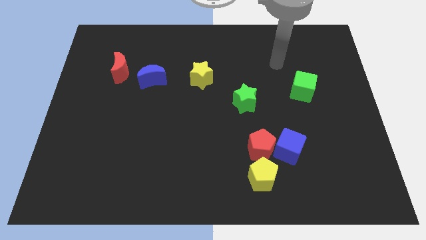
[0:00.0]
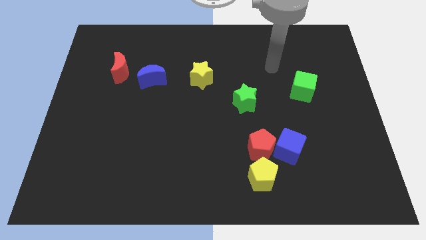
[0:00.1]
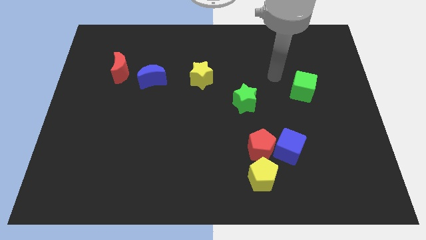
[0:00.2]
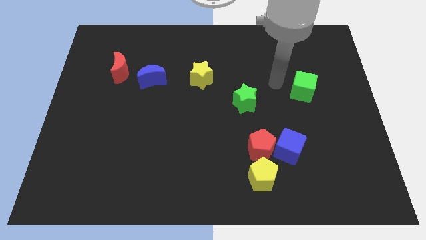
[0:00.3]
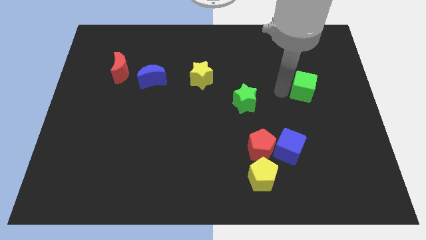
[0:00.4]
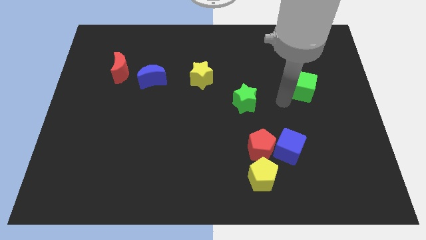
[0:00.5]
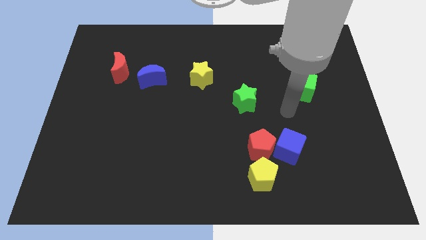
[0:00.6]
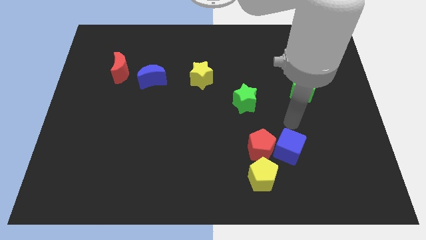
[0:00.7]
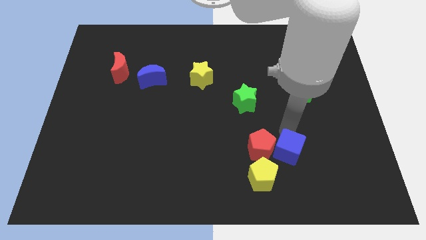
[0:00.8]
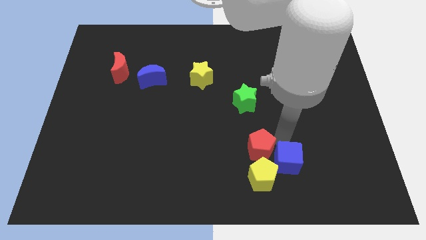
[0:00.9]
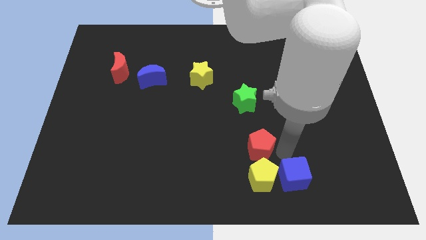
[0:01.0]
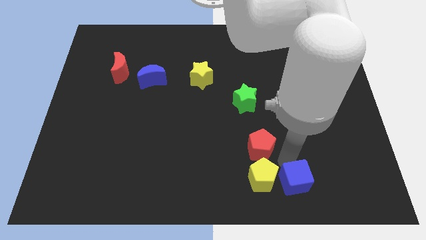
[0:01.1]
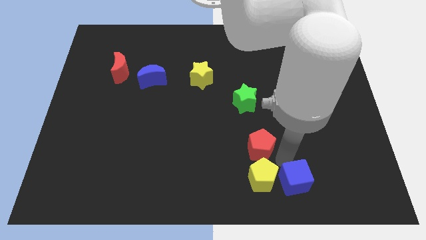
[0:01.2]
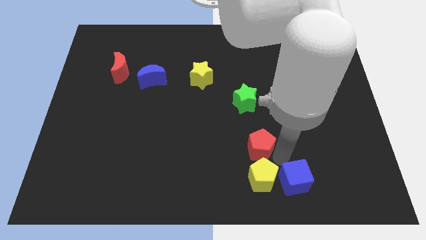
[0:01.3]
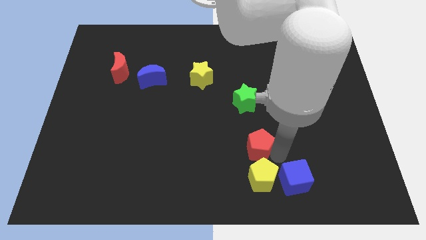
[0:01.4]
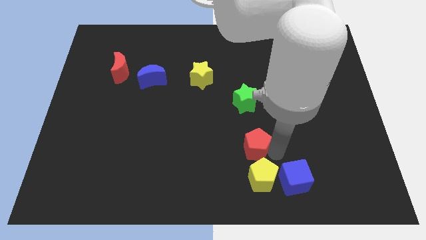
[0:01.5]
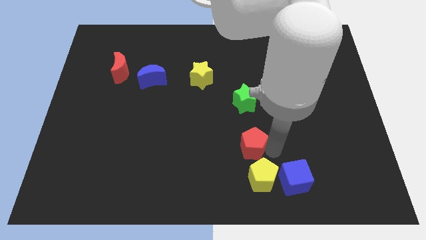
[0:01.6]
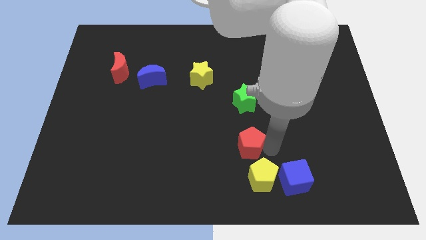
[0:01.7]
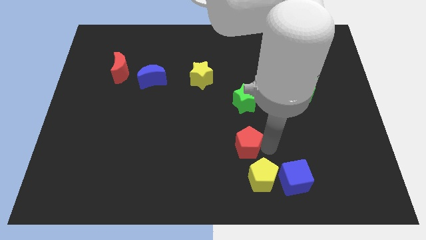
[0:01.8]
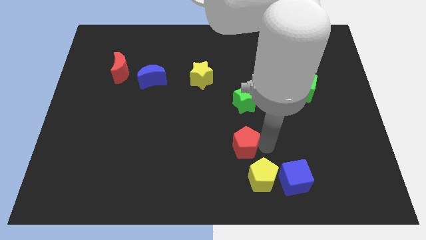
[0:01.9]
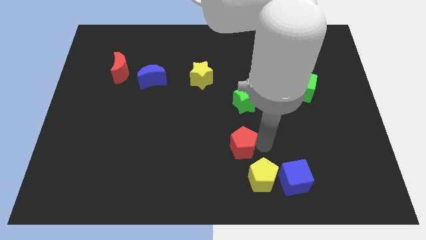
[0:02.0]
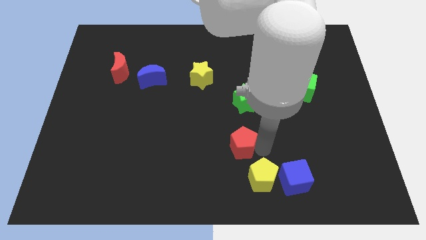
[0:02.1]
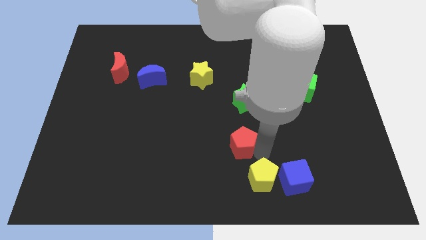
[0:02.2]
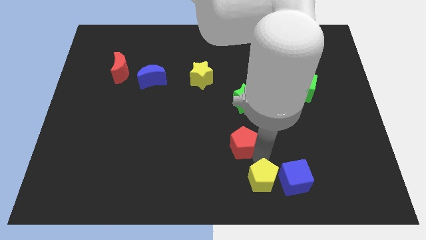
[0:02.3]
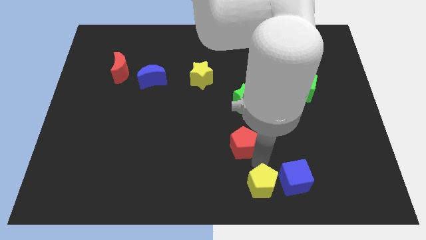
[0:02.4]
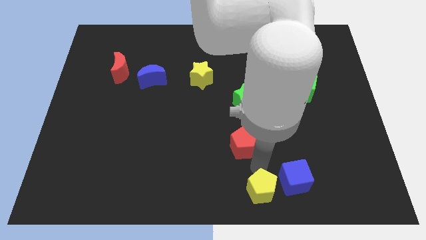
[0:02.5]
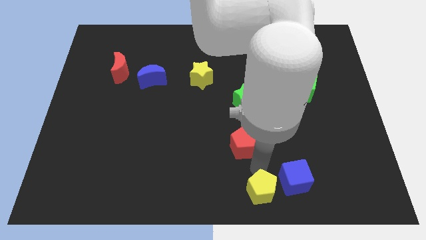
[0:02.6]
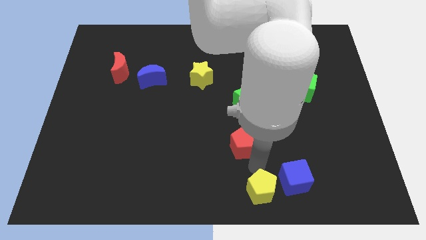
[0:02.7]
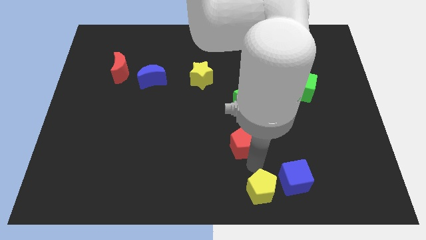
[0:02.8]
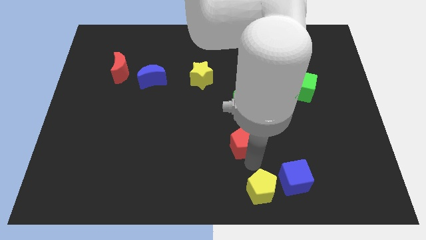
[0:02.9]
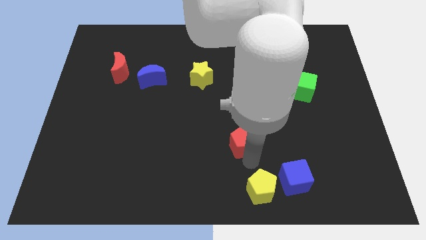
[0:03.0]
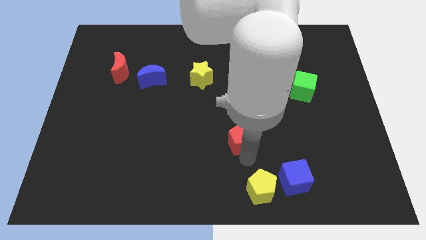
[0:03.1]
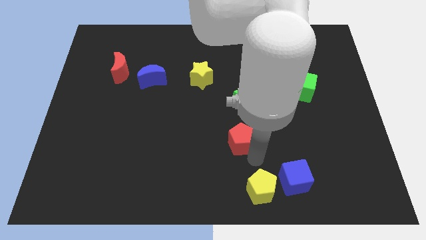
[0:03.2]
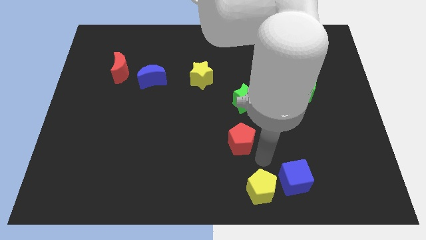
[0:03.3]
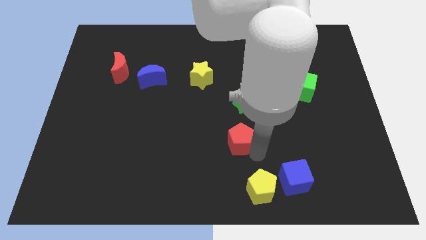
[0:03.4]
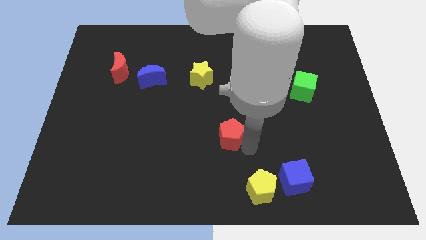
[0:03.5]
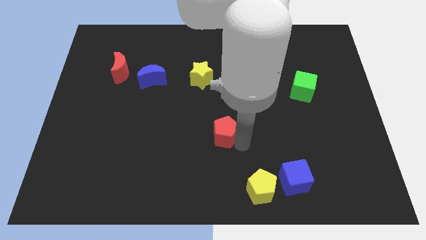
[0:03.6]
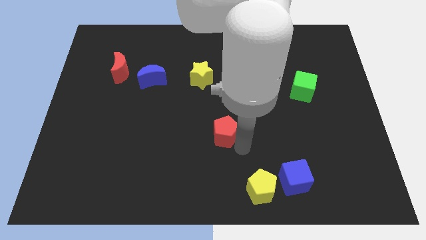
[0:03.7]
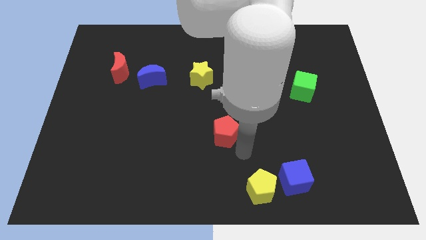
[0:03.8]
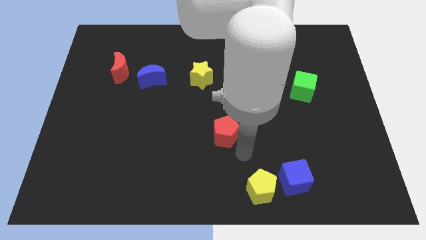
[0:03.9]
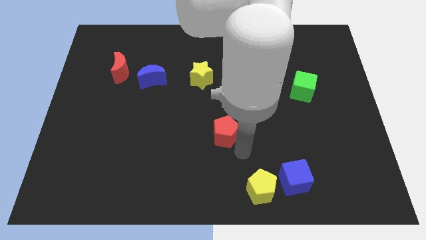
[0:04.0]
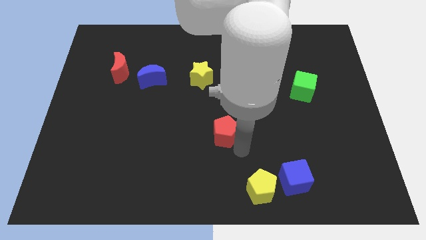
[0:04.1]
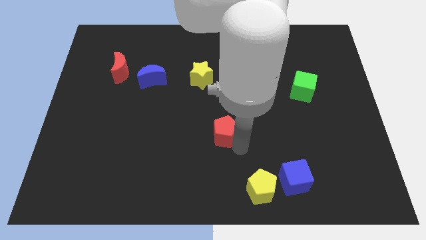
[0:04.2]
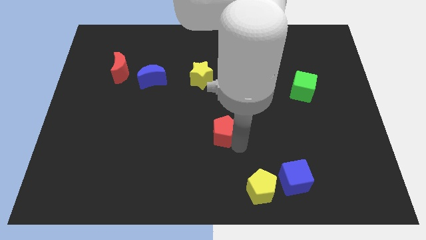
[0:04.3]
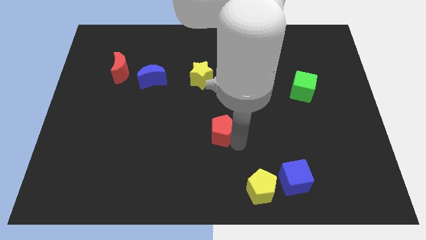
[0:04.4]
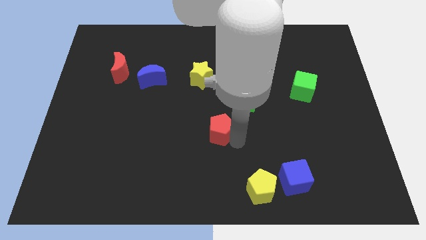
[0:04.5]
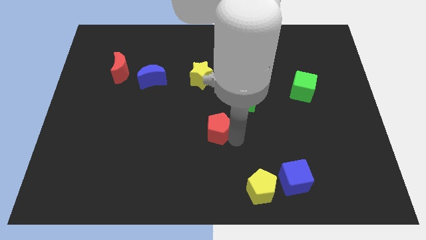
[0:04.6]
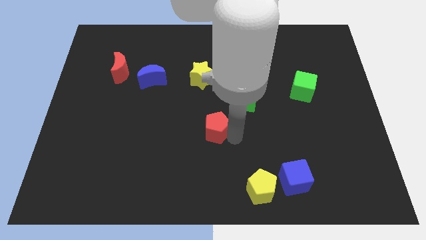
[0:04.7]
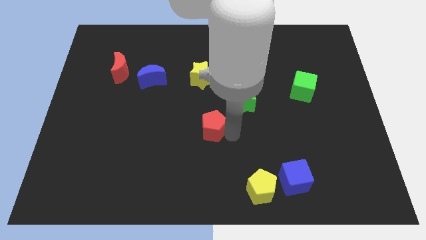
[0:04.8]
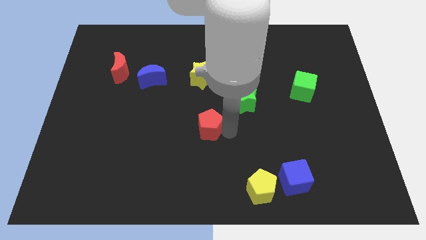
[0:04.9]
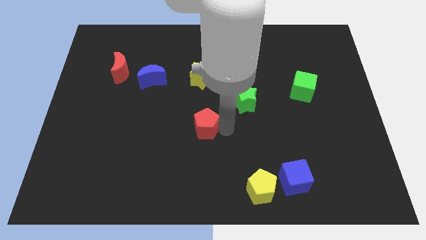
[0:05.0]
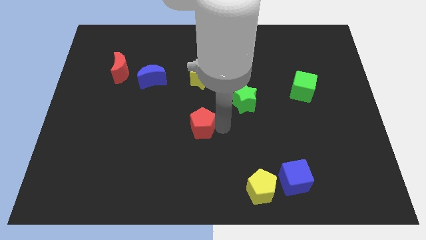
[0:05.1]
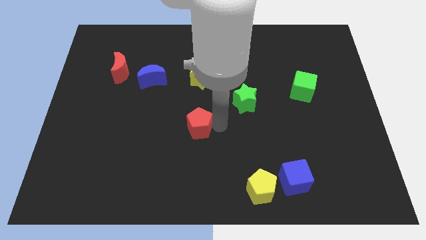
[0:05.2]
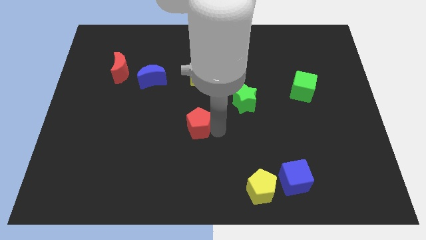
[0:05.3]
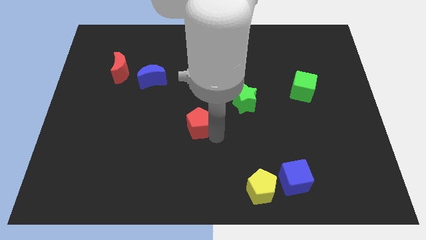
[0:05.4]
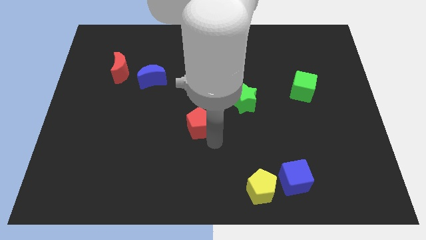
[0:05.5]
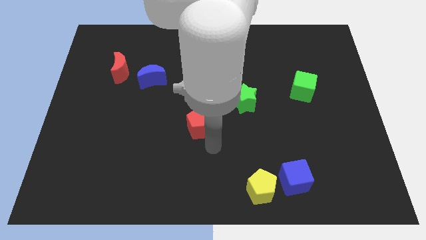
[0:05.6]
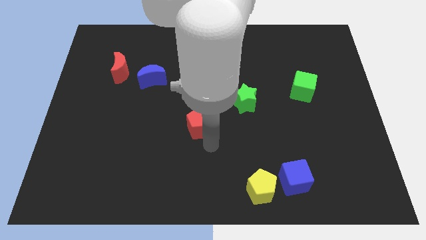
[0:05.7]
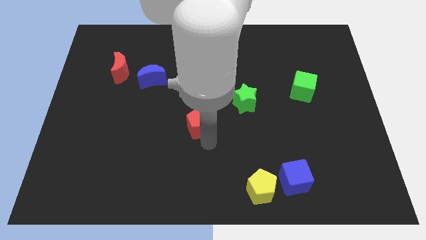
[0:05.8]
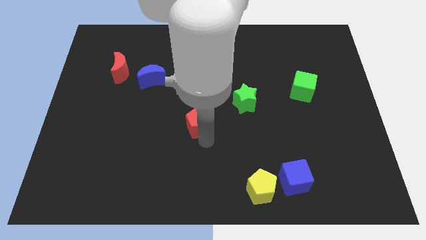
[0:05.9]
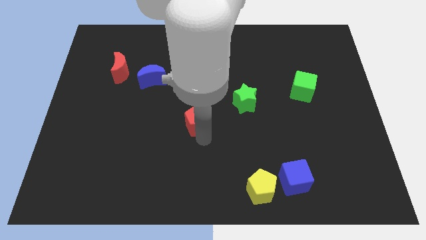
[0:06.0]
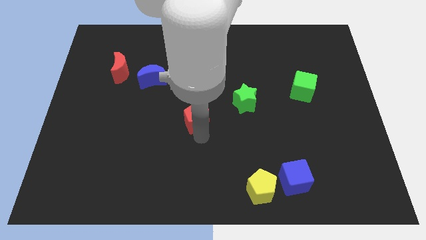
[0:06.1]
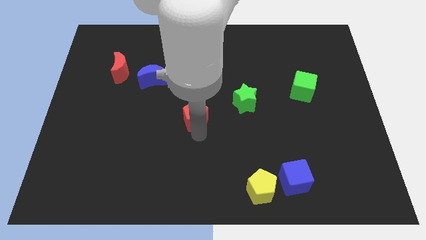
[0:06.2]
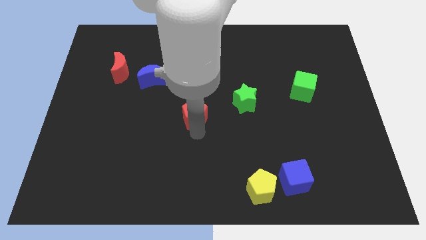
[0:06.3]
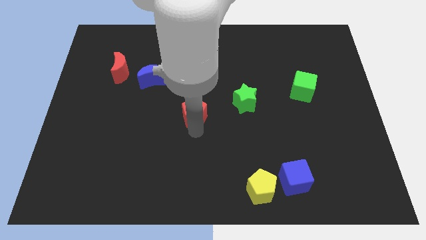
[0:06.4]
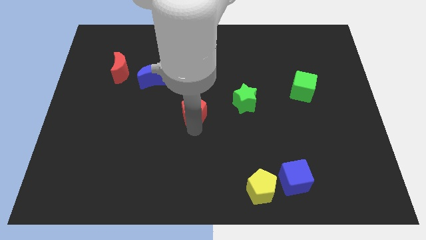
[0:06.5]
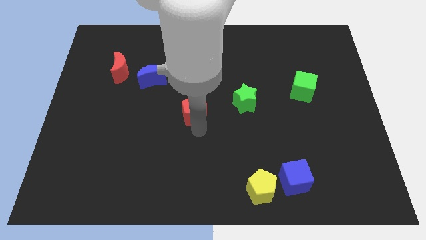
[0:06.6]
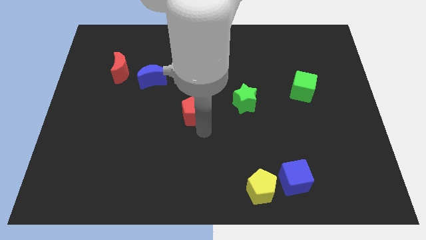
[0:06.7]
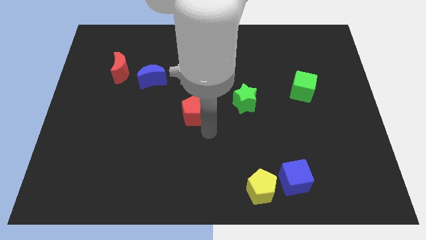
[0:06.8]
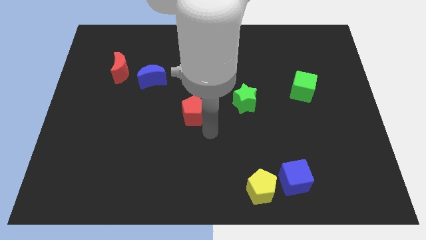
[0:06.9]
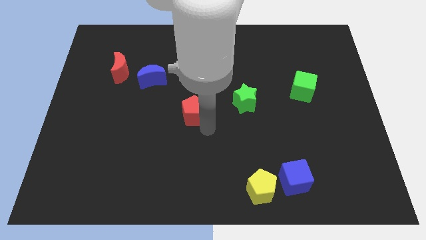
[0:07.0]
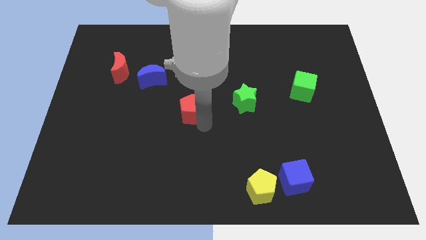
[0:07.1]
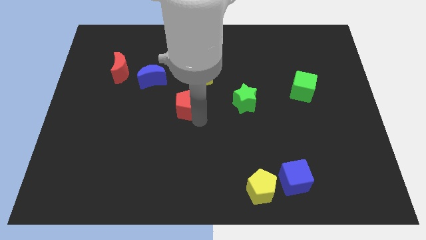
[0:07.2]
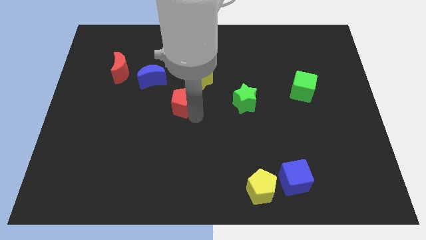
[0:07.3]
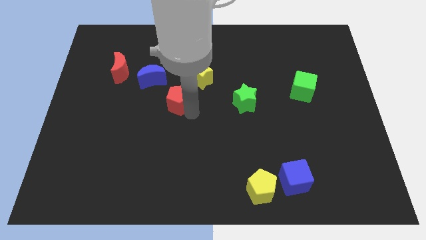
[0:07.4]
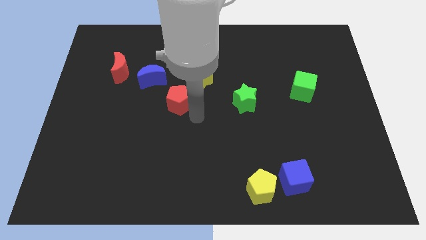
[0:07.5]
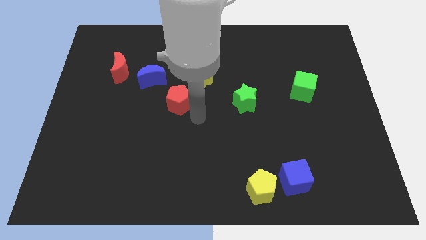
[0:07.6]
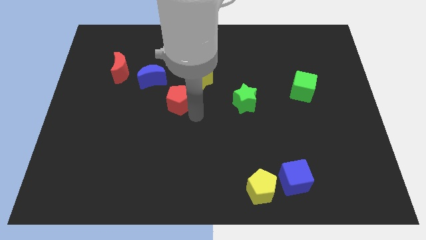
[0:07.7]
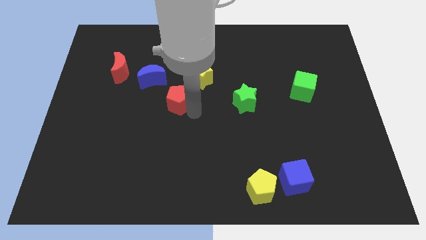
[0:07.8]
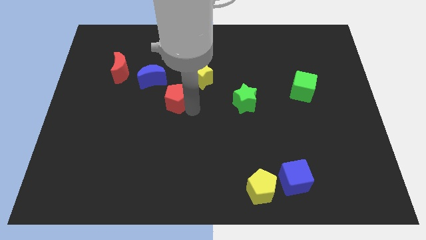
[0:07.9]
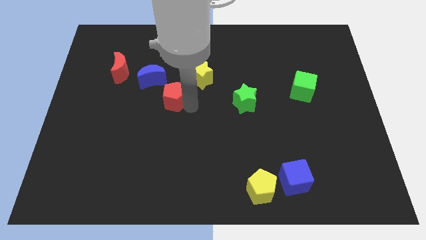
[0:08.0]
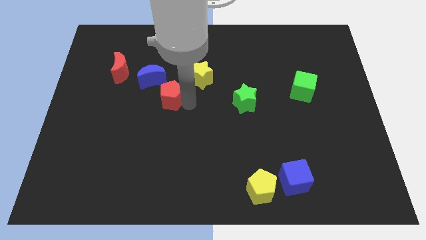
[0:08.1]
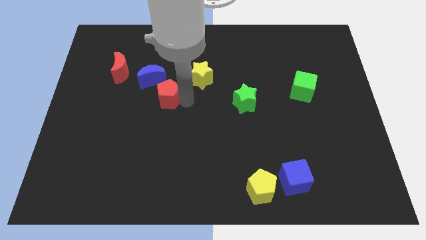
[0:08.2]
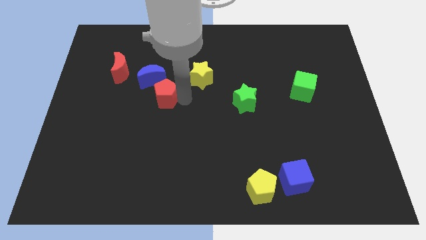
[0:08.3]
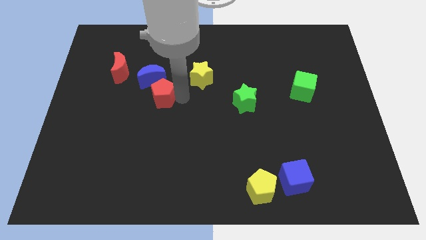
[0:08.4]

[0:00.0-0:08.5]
move the red pentagon to the blue moon
